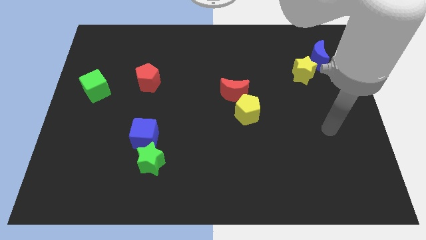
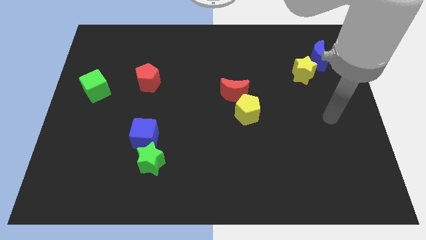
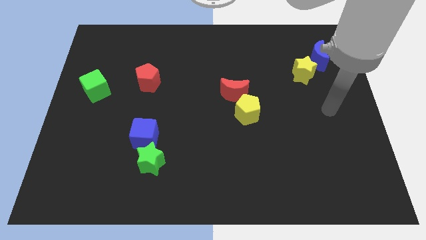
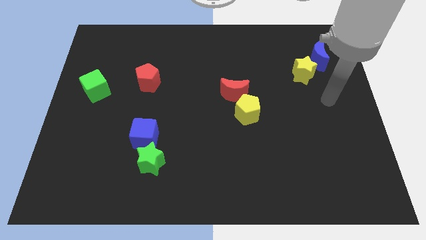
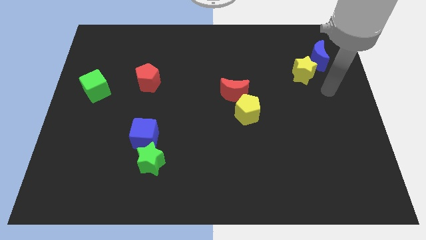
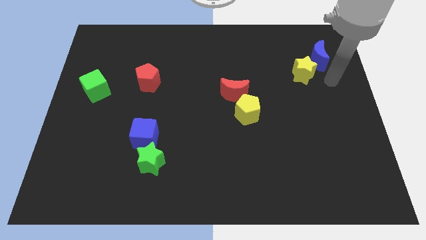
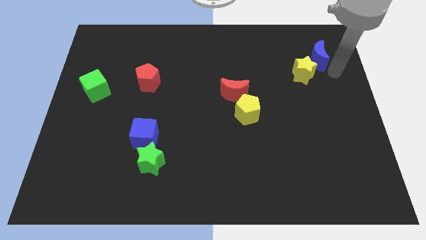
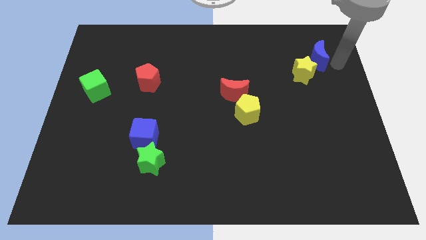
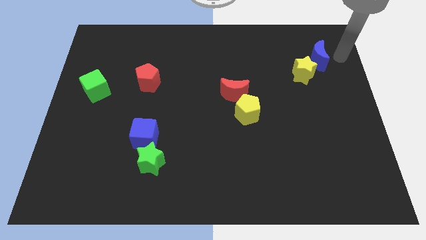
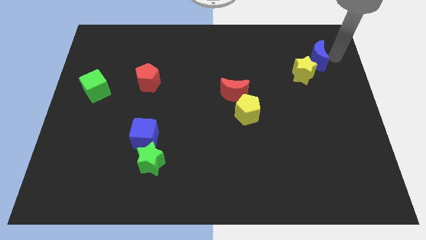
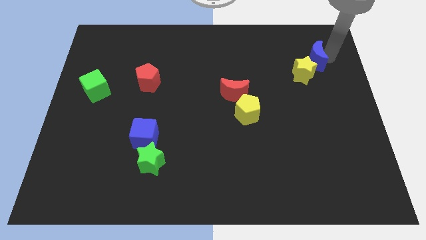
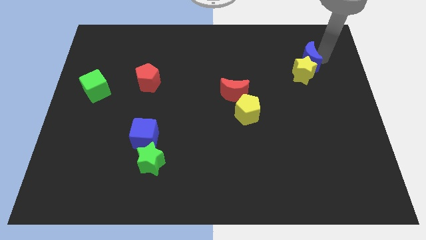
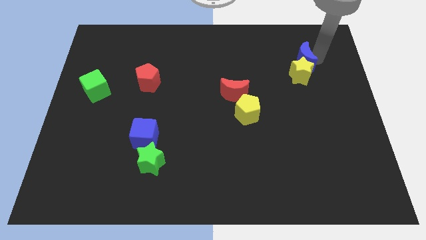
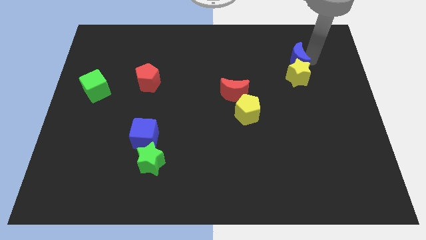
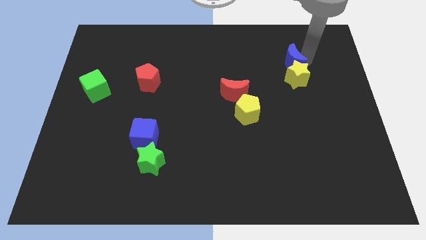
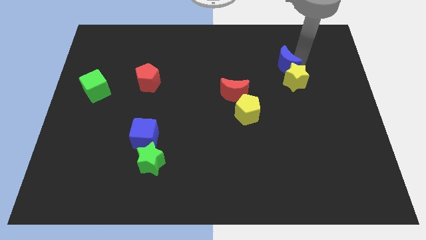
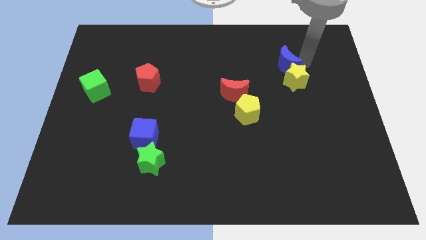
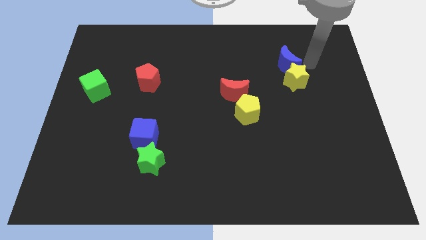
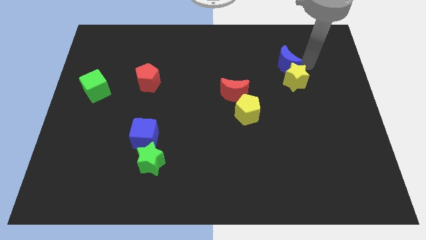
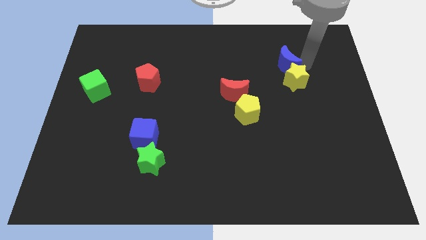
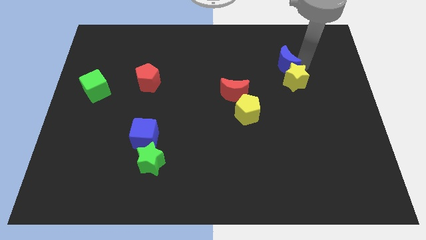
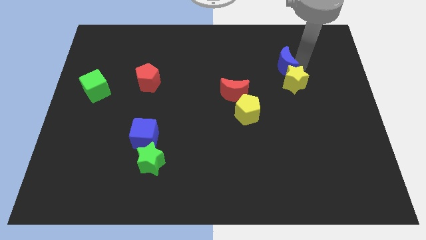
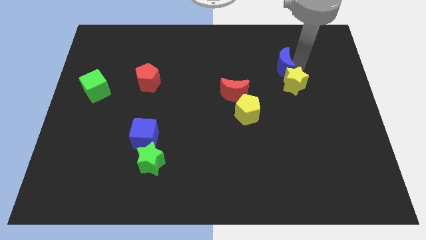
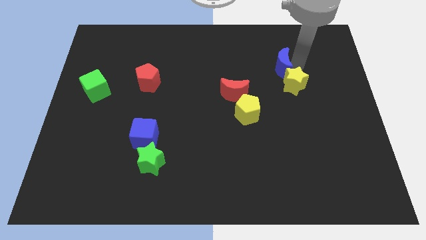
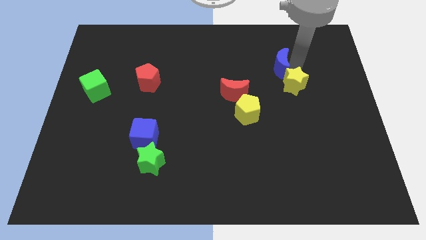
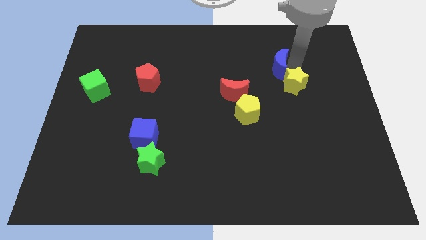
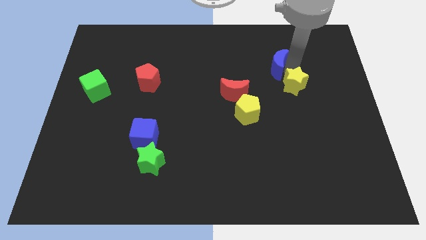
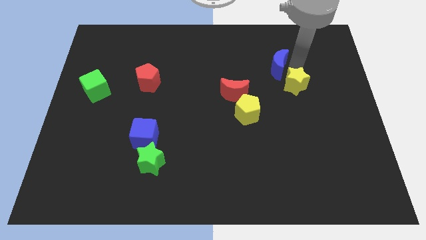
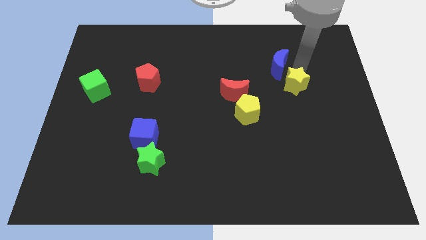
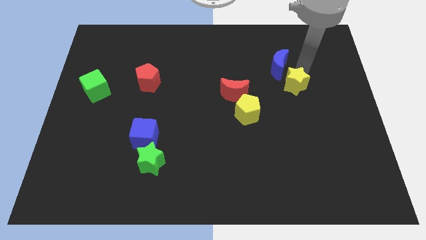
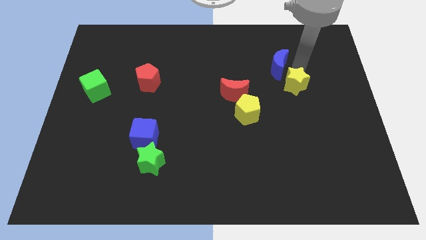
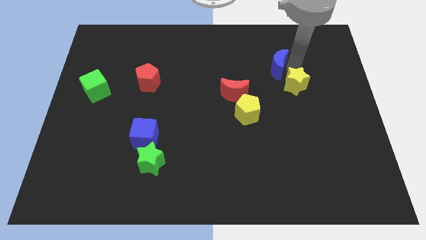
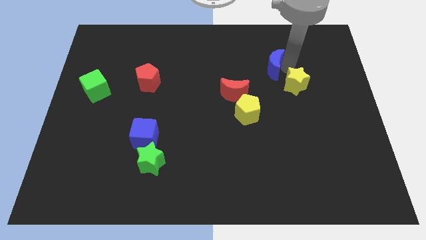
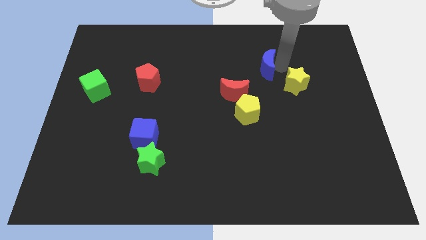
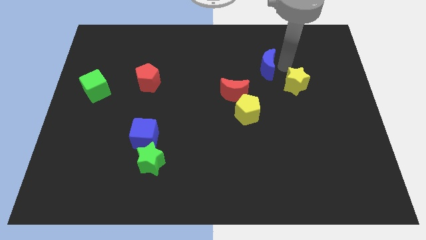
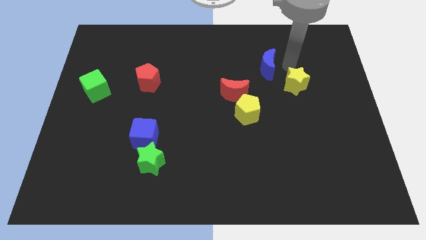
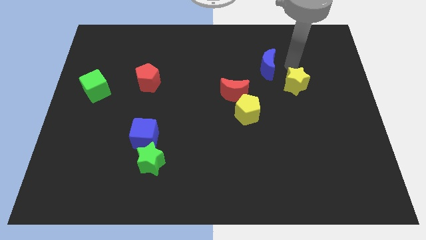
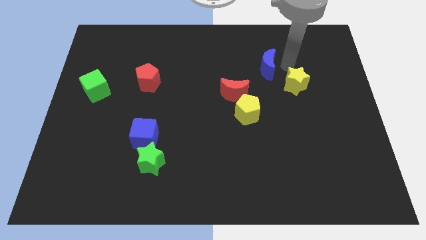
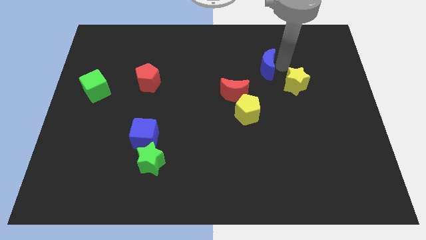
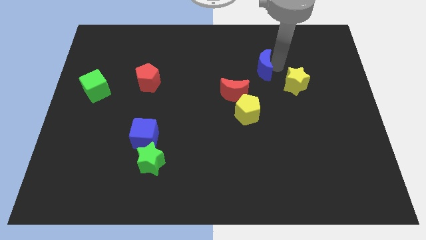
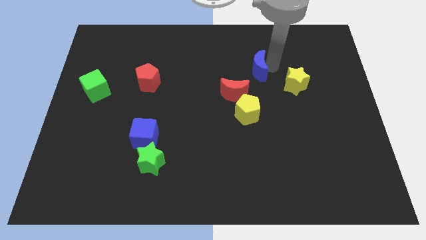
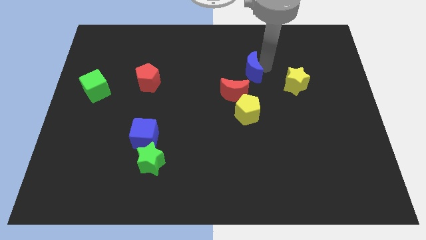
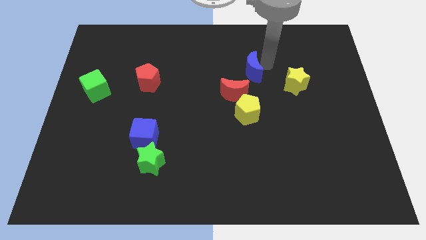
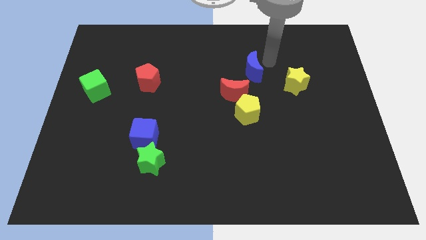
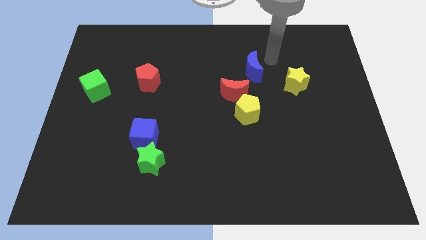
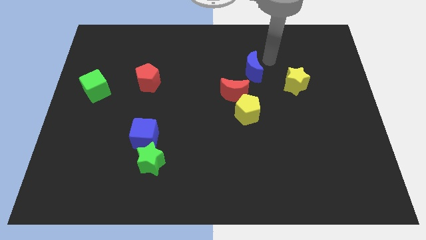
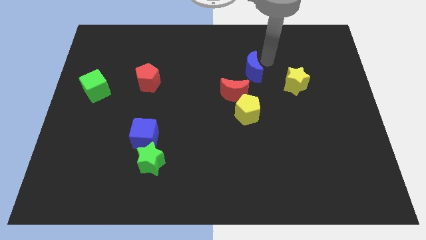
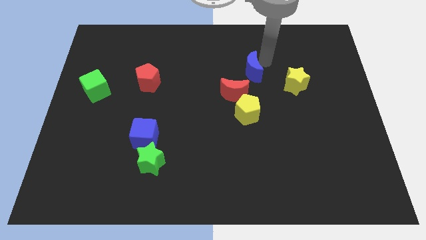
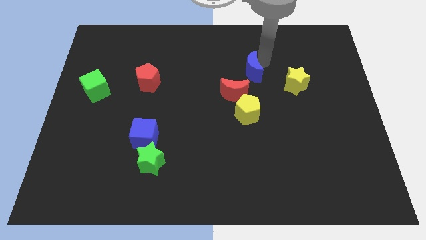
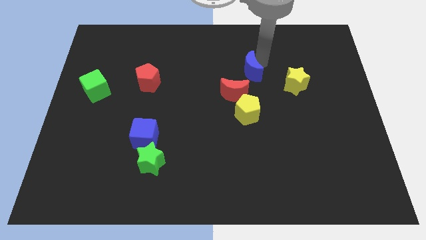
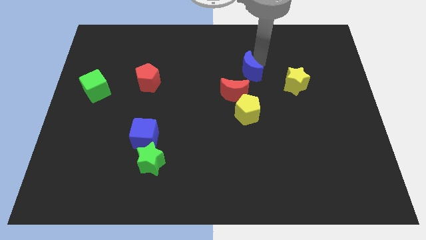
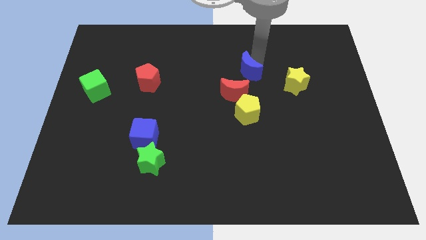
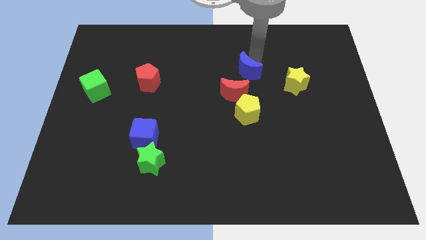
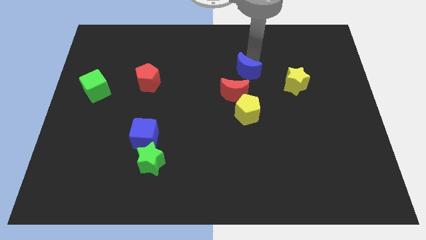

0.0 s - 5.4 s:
move the blue moon to the middle
